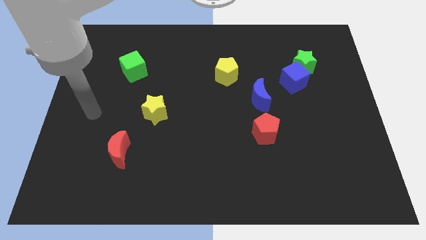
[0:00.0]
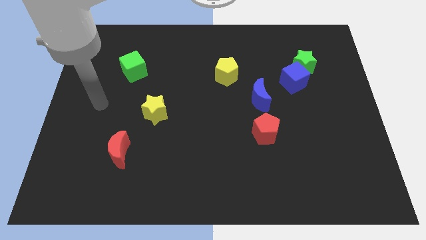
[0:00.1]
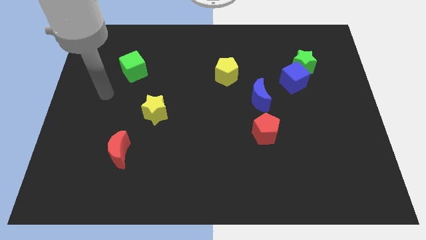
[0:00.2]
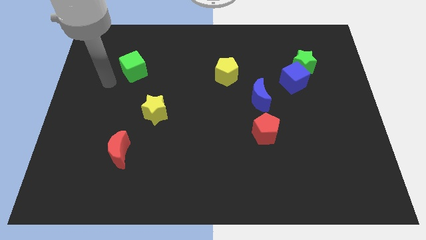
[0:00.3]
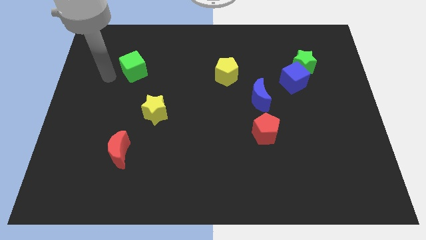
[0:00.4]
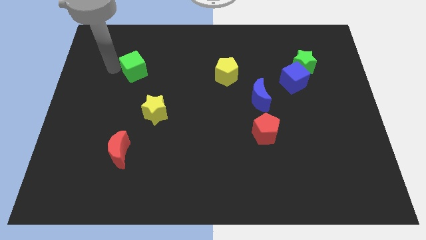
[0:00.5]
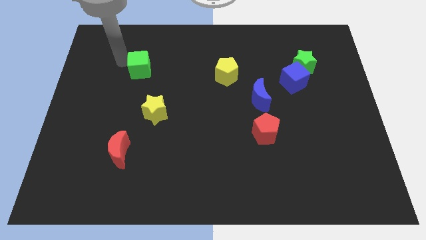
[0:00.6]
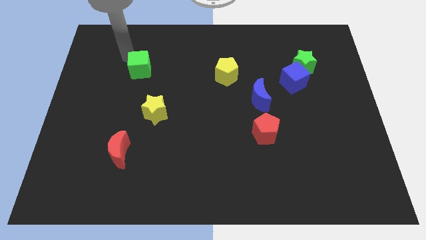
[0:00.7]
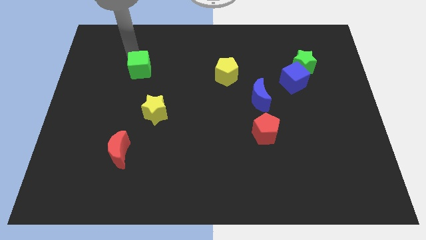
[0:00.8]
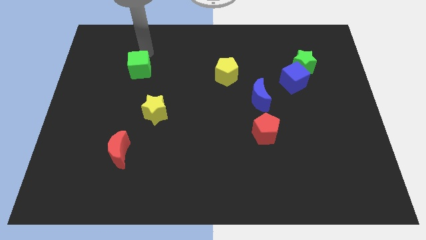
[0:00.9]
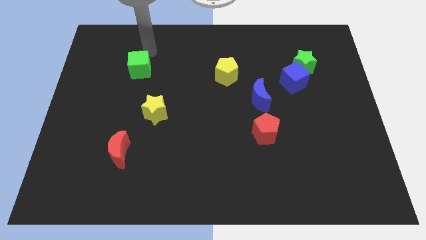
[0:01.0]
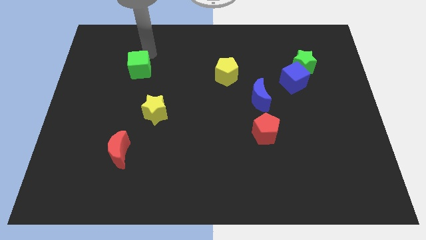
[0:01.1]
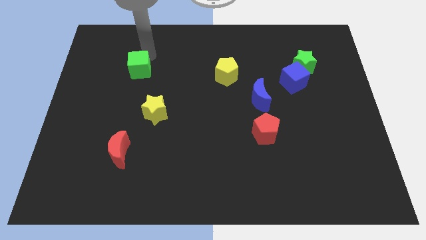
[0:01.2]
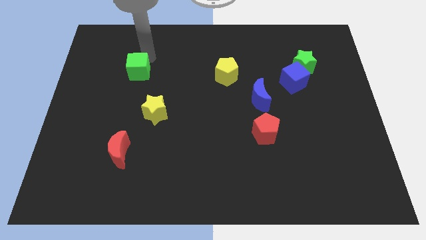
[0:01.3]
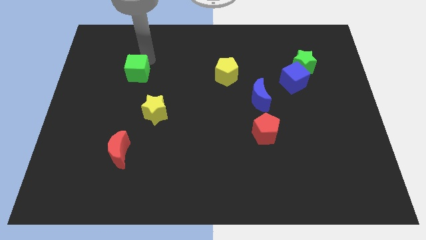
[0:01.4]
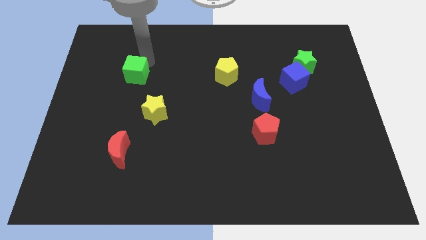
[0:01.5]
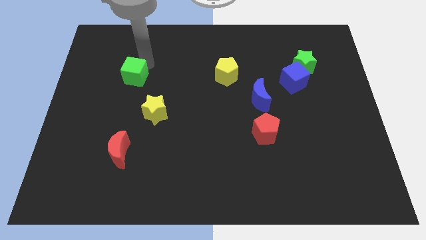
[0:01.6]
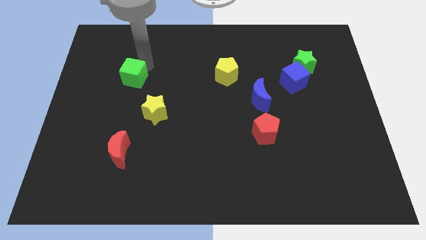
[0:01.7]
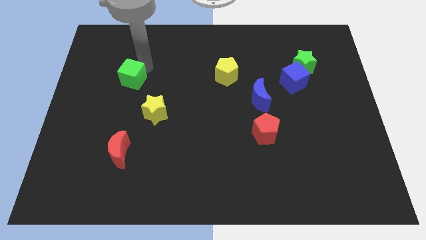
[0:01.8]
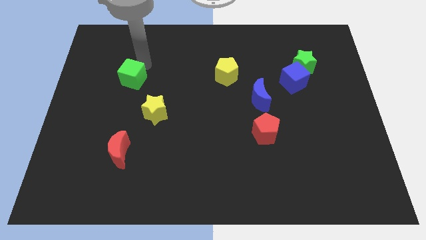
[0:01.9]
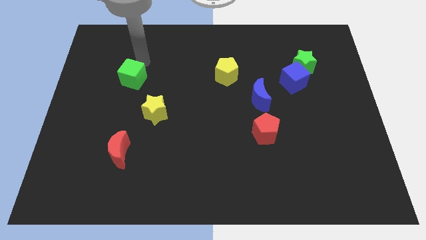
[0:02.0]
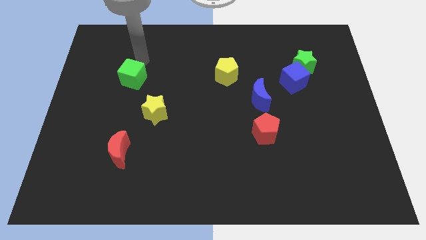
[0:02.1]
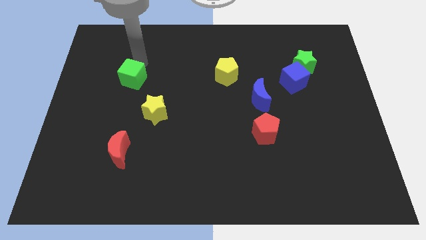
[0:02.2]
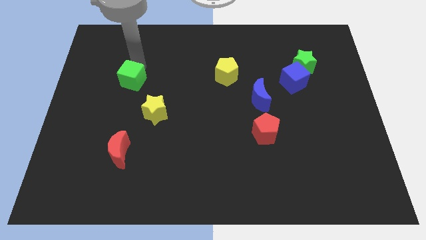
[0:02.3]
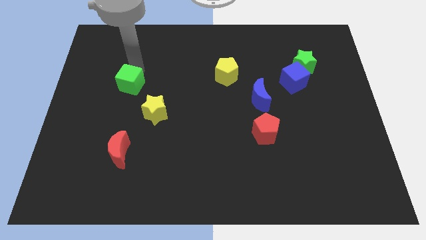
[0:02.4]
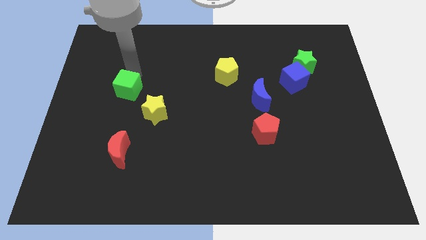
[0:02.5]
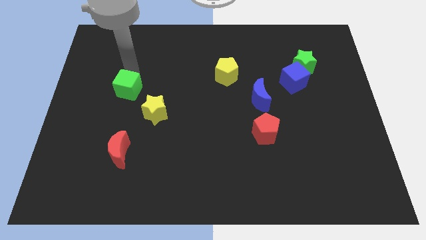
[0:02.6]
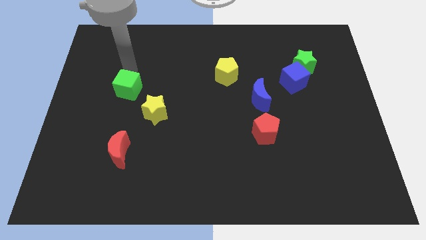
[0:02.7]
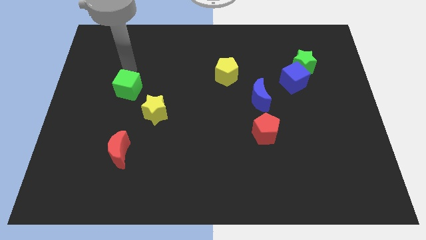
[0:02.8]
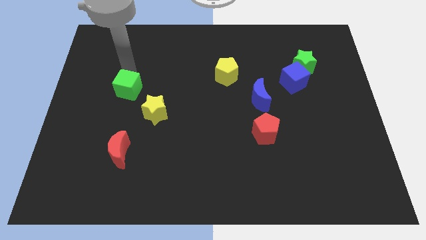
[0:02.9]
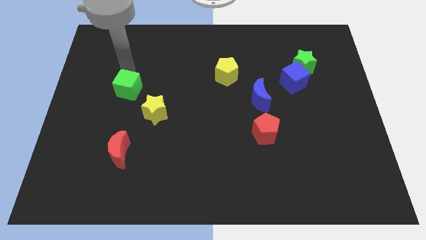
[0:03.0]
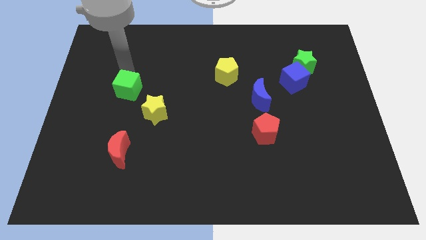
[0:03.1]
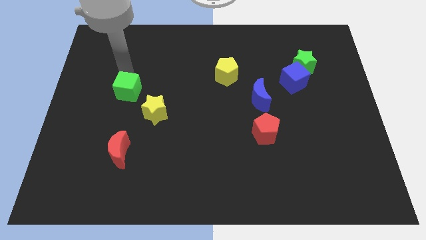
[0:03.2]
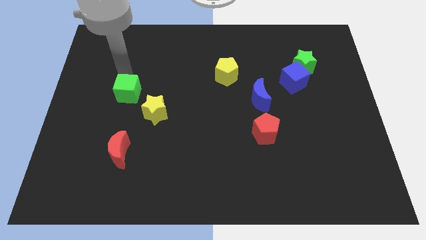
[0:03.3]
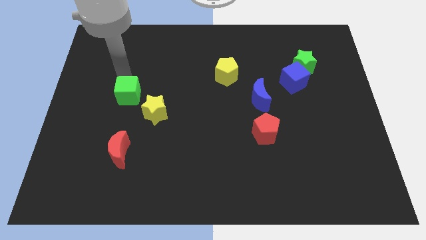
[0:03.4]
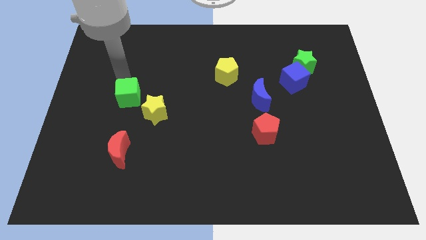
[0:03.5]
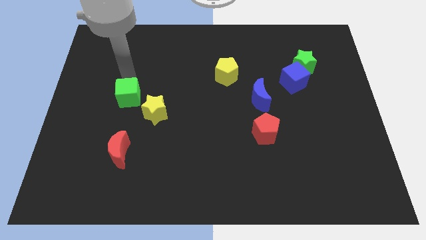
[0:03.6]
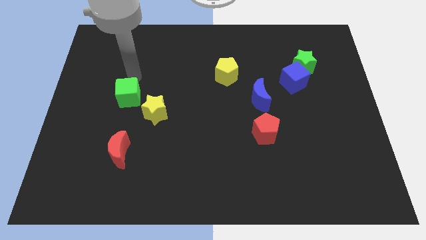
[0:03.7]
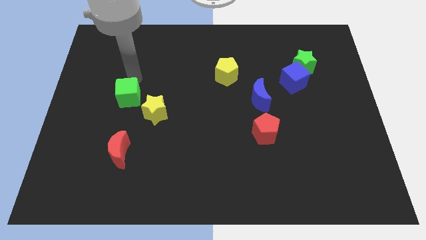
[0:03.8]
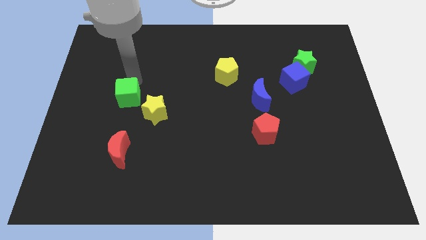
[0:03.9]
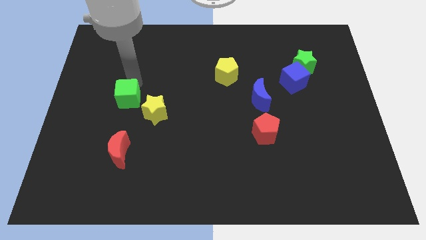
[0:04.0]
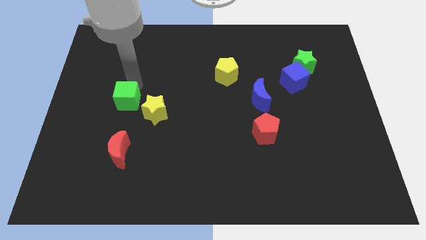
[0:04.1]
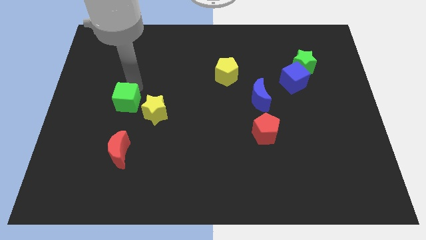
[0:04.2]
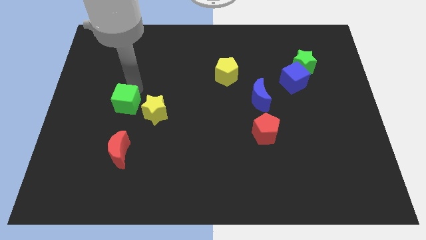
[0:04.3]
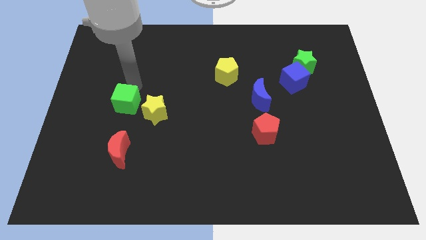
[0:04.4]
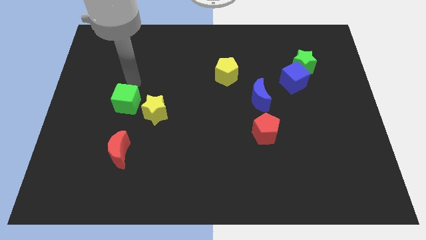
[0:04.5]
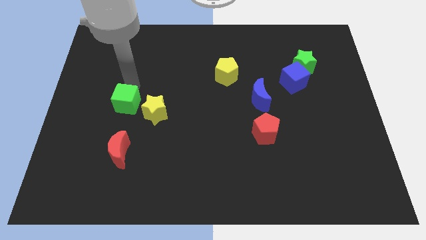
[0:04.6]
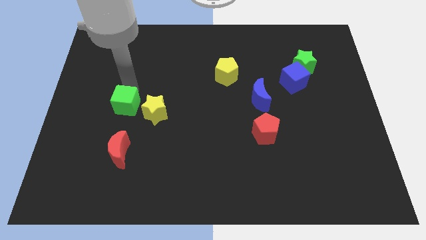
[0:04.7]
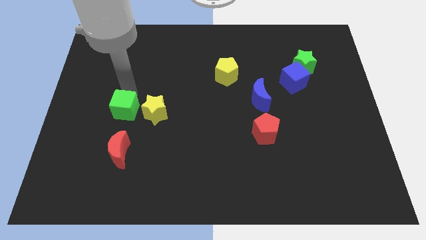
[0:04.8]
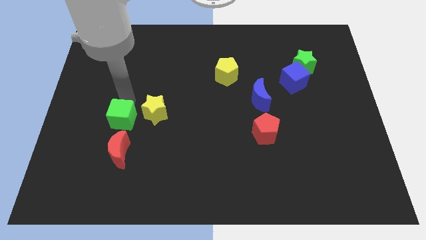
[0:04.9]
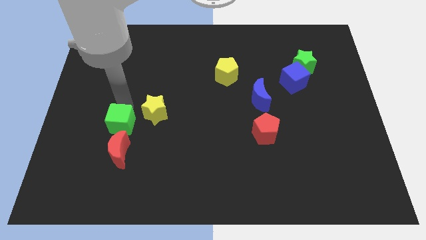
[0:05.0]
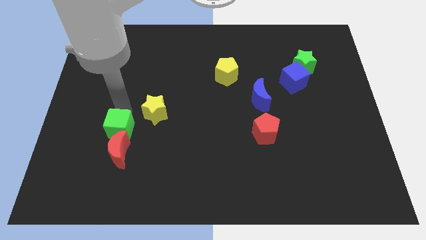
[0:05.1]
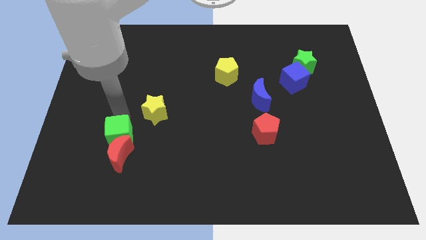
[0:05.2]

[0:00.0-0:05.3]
slide the green cube towards the red moon

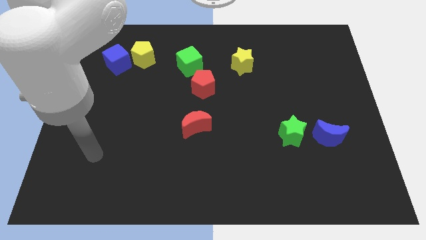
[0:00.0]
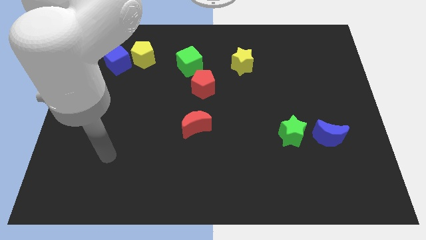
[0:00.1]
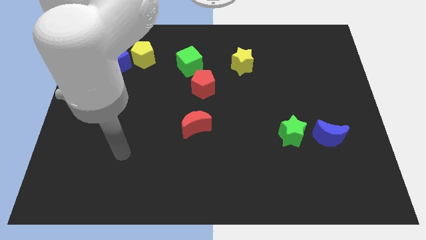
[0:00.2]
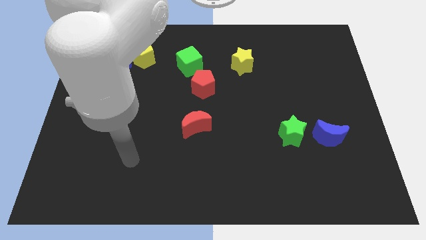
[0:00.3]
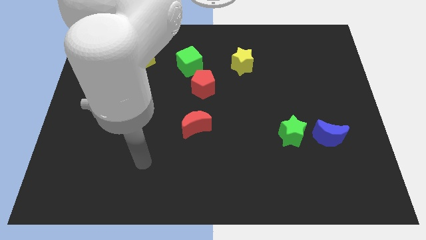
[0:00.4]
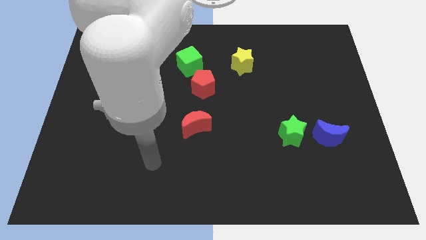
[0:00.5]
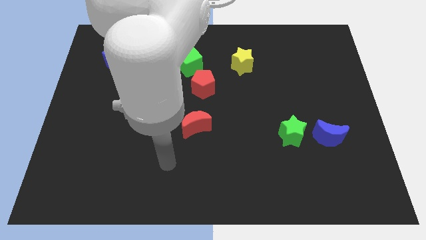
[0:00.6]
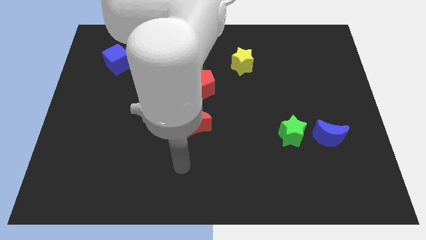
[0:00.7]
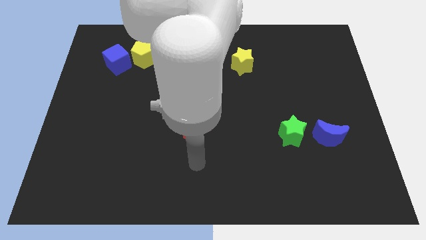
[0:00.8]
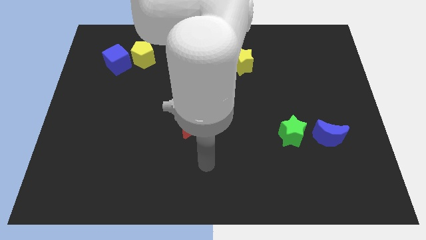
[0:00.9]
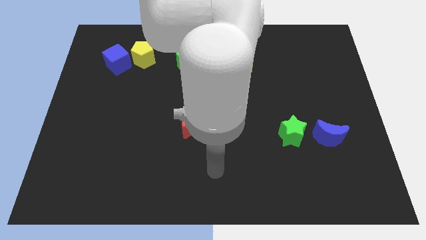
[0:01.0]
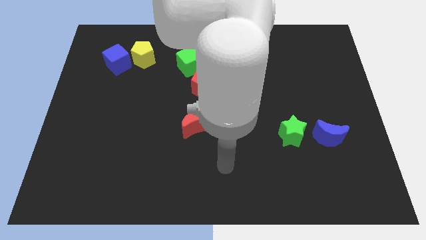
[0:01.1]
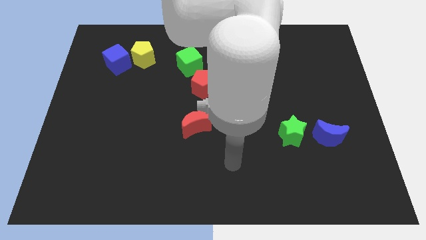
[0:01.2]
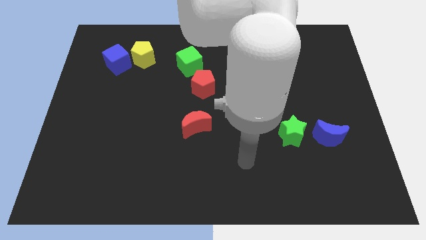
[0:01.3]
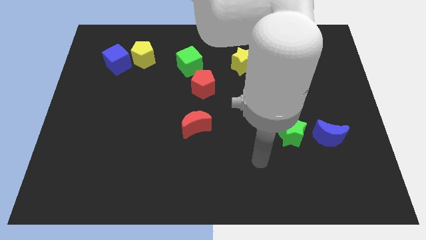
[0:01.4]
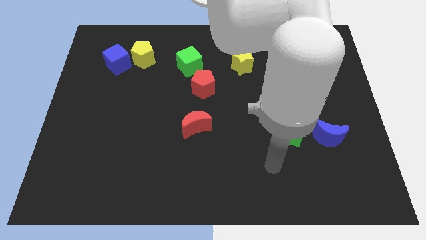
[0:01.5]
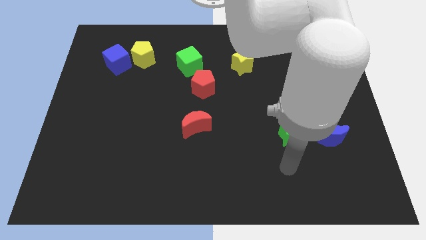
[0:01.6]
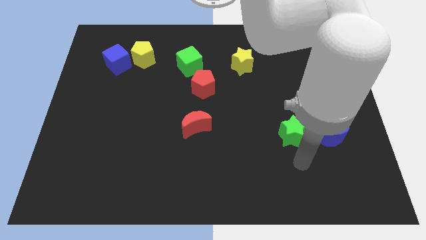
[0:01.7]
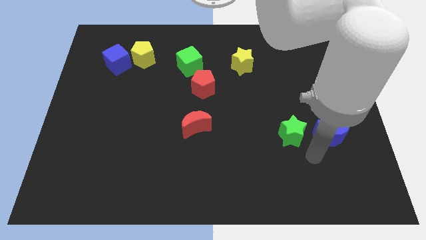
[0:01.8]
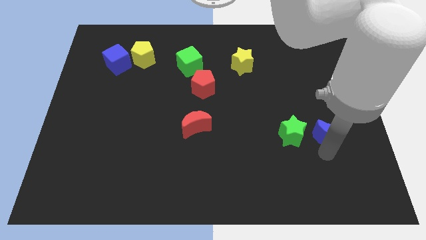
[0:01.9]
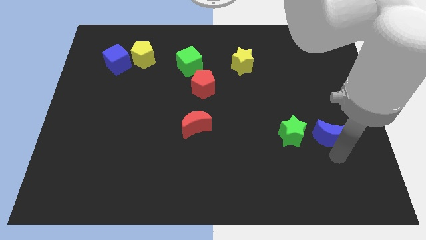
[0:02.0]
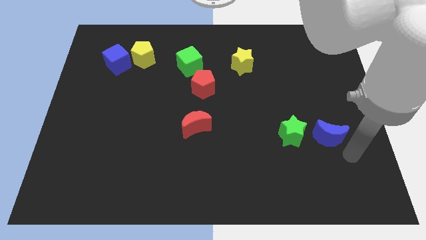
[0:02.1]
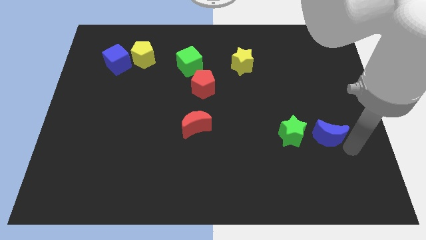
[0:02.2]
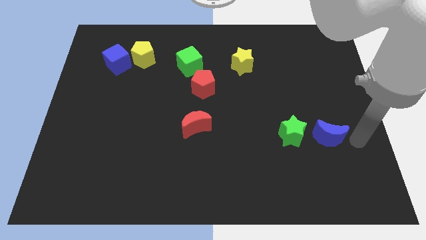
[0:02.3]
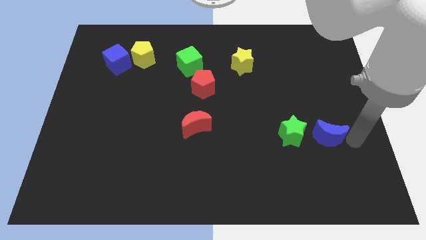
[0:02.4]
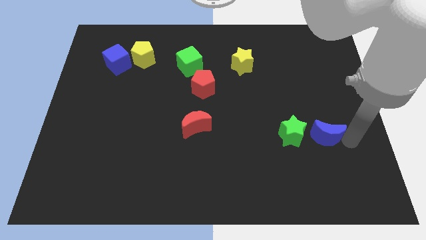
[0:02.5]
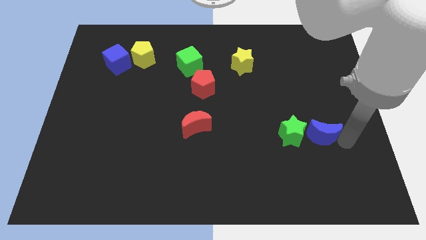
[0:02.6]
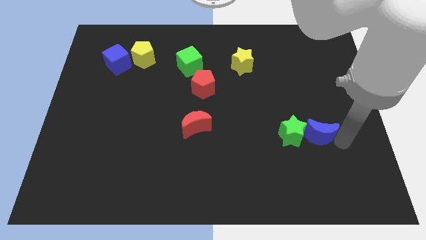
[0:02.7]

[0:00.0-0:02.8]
slide the blue moon towards the green star
